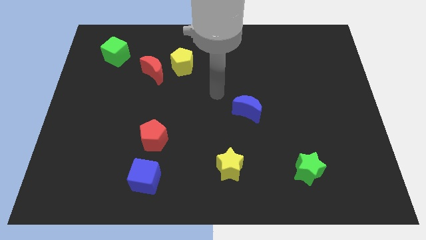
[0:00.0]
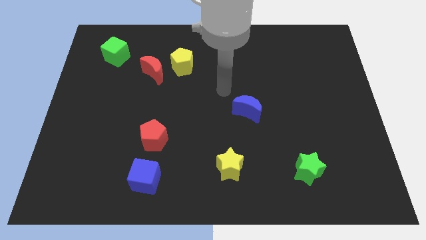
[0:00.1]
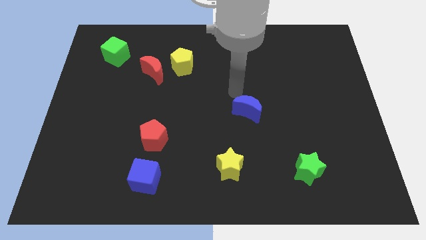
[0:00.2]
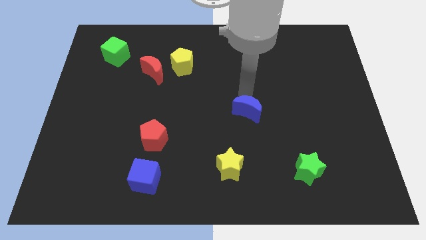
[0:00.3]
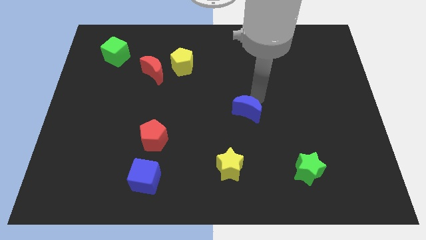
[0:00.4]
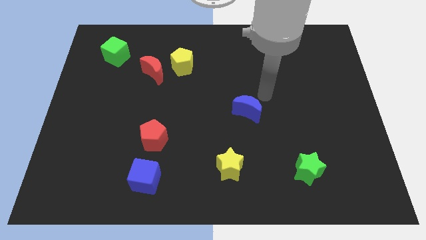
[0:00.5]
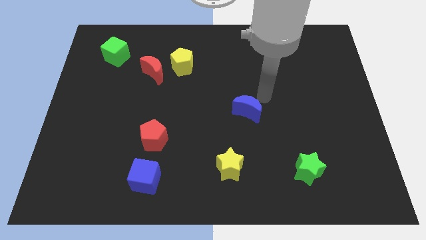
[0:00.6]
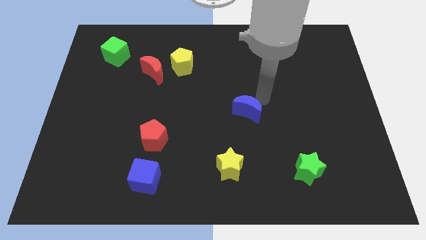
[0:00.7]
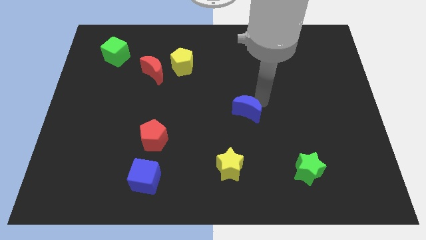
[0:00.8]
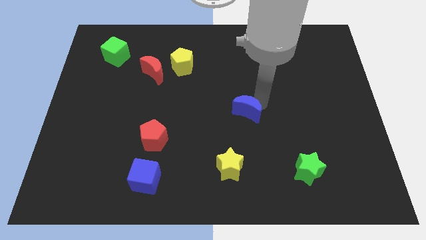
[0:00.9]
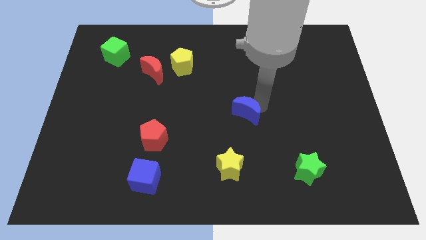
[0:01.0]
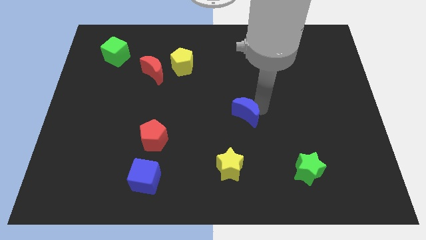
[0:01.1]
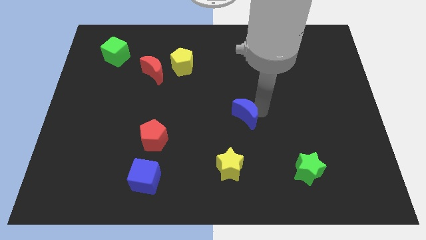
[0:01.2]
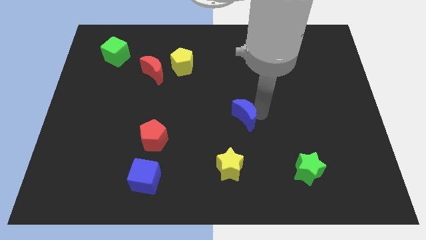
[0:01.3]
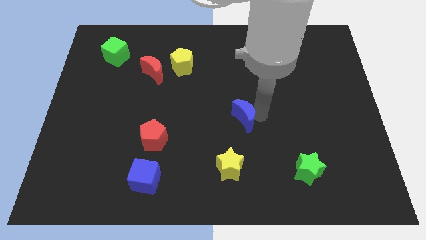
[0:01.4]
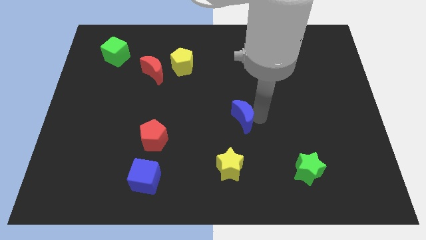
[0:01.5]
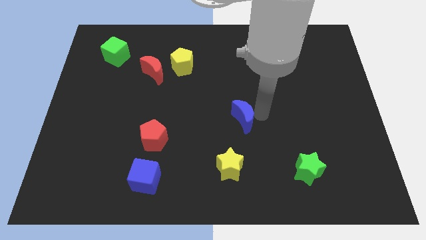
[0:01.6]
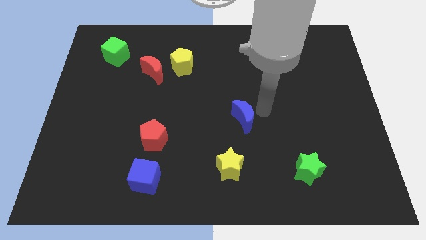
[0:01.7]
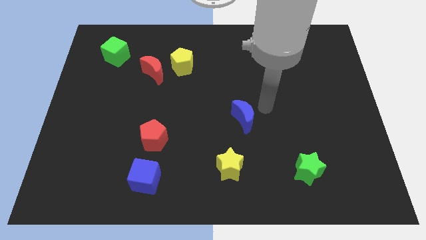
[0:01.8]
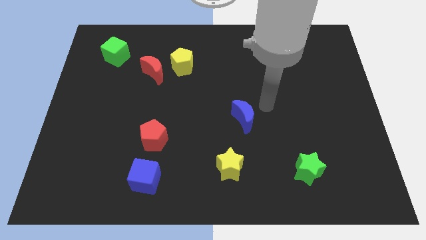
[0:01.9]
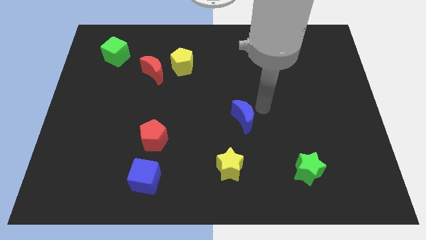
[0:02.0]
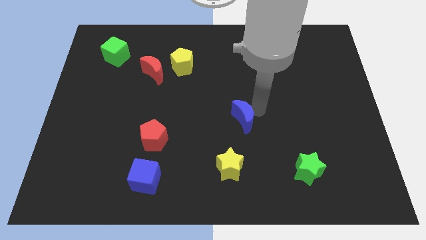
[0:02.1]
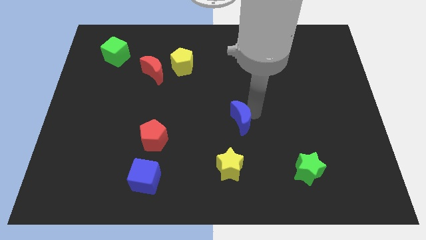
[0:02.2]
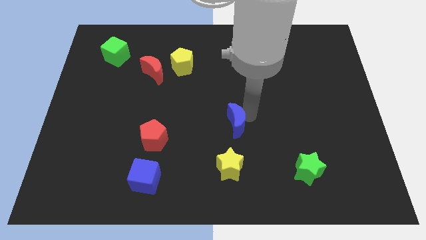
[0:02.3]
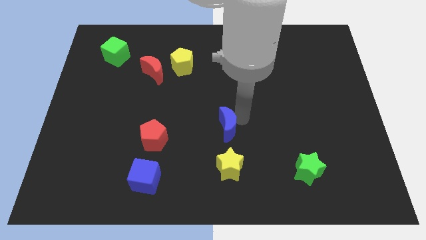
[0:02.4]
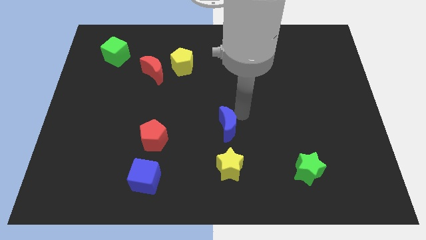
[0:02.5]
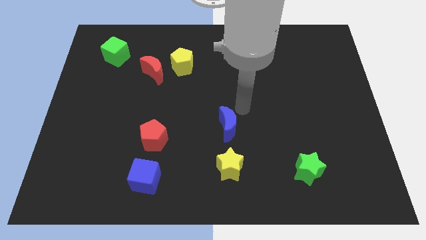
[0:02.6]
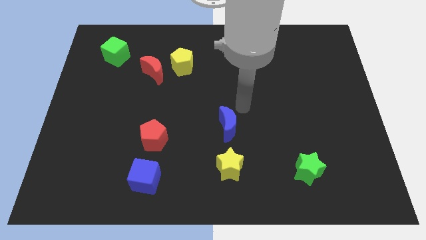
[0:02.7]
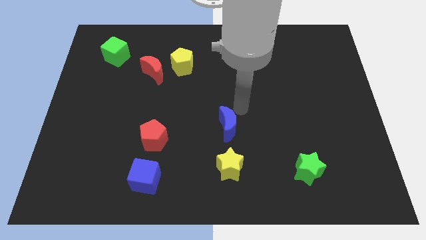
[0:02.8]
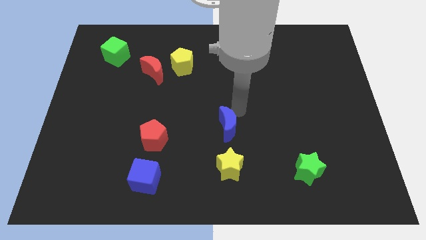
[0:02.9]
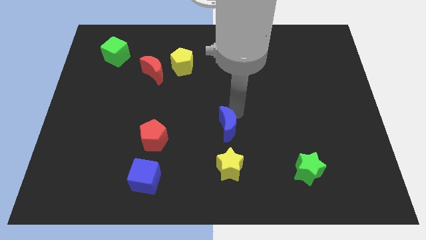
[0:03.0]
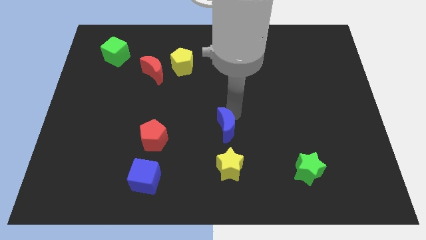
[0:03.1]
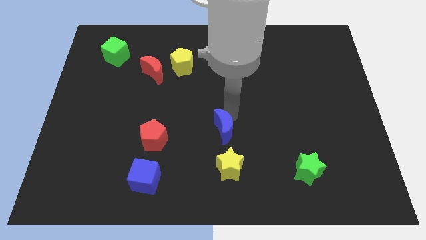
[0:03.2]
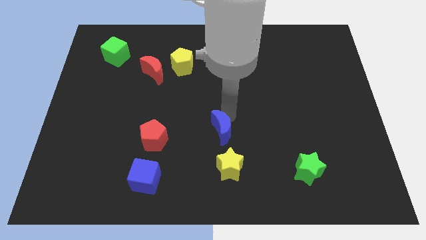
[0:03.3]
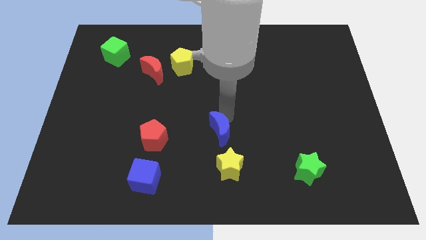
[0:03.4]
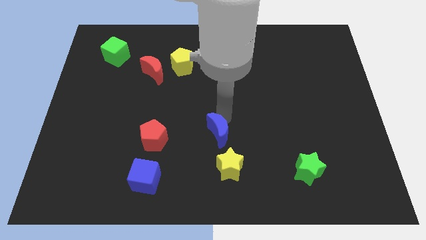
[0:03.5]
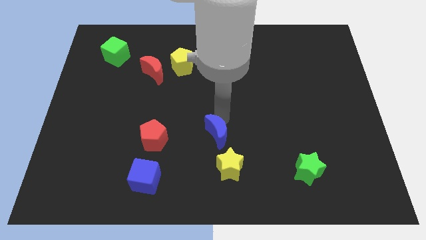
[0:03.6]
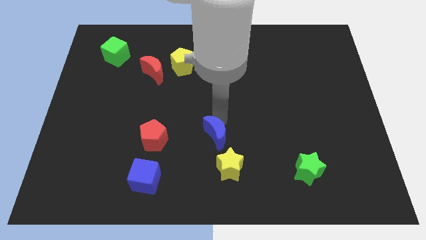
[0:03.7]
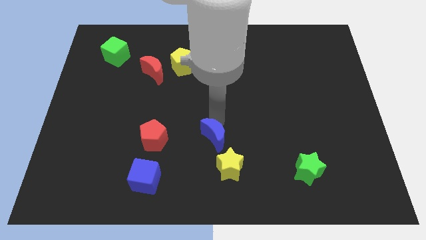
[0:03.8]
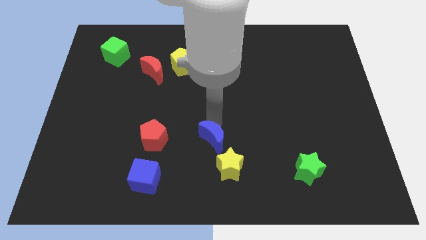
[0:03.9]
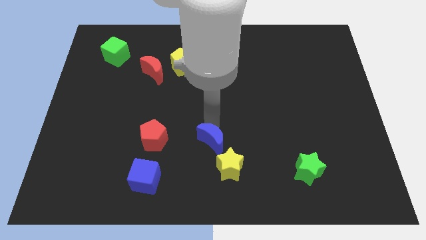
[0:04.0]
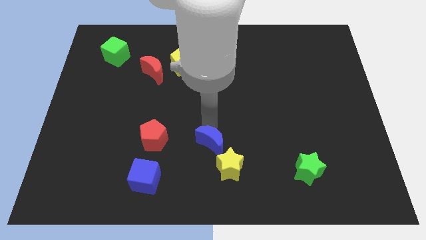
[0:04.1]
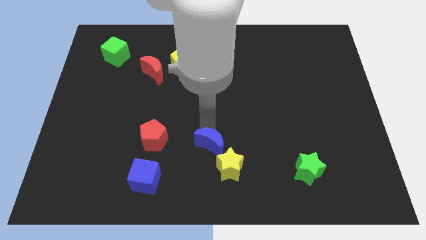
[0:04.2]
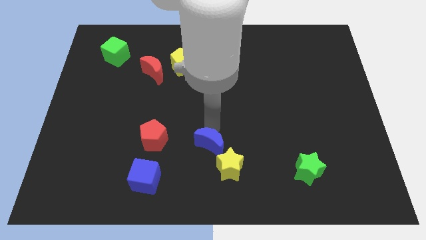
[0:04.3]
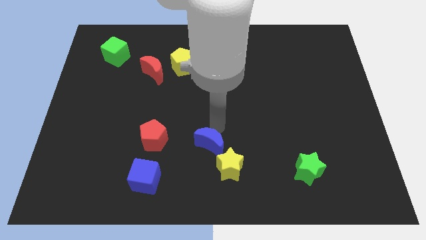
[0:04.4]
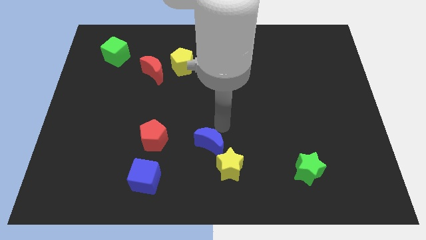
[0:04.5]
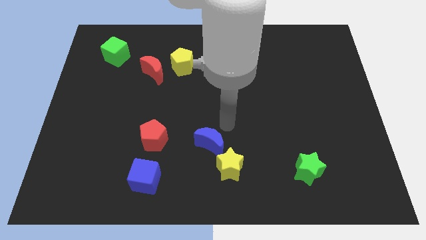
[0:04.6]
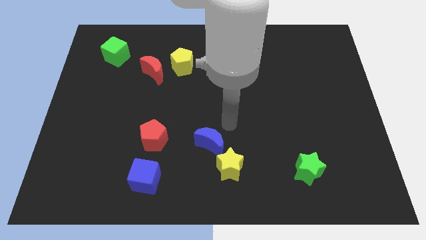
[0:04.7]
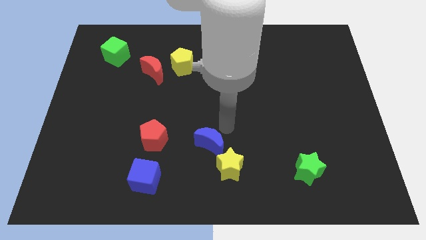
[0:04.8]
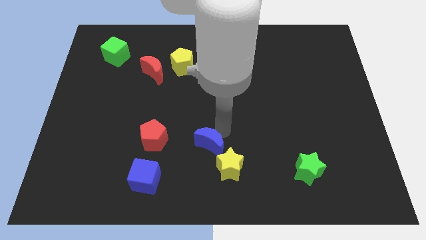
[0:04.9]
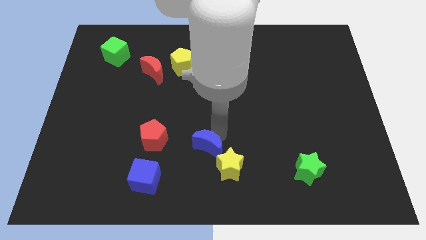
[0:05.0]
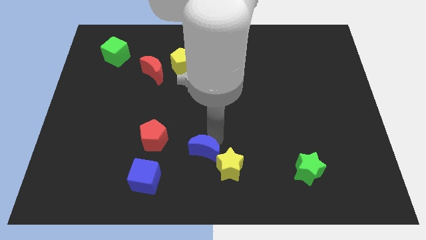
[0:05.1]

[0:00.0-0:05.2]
move the blue moon to the left side of the yellow star

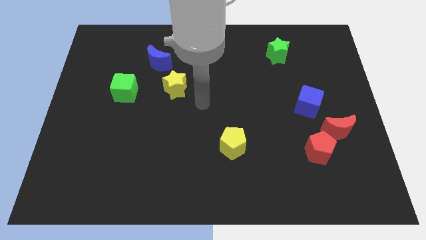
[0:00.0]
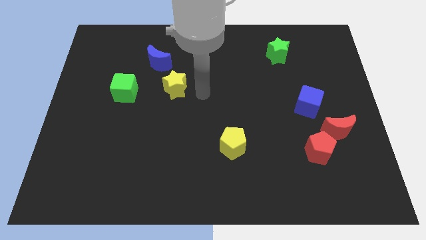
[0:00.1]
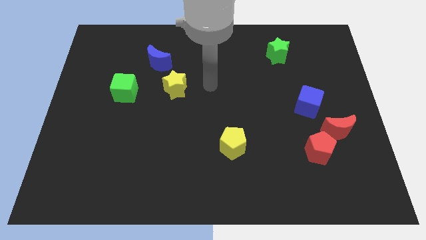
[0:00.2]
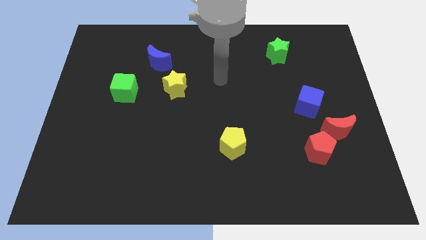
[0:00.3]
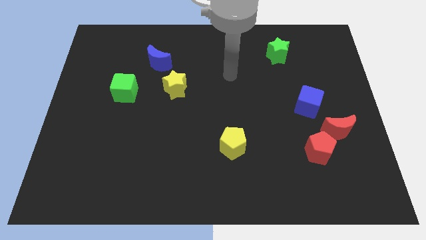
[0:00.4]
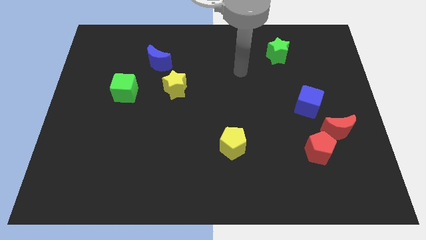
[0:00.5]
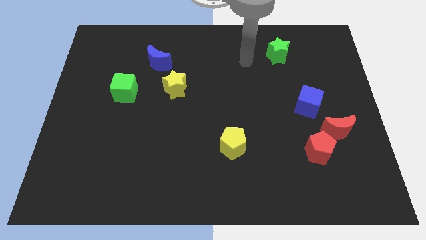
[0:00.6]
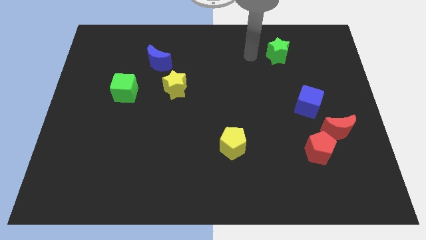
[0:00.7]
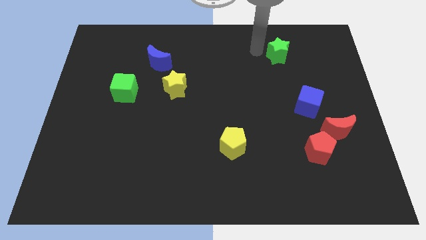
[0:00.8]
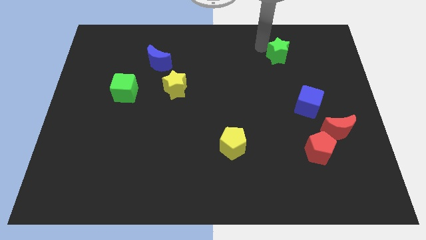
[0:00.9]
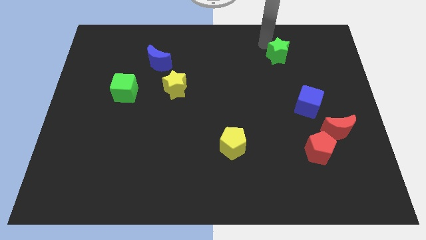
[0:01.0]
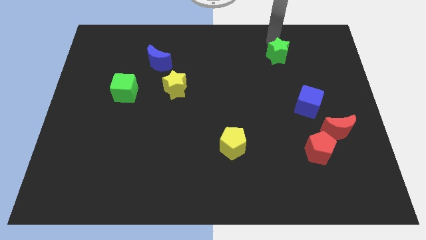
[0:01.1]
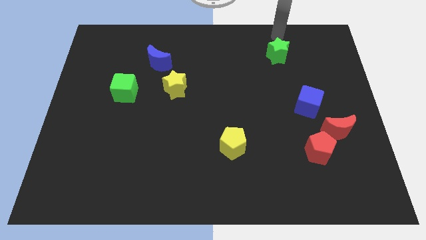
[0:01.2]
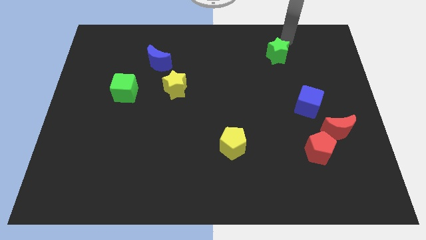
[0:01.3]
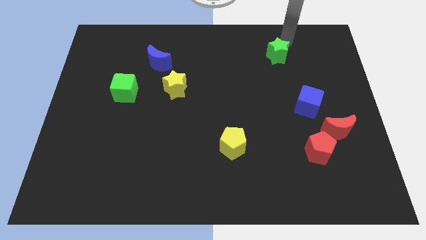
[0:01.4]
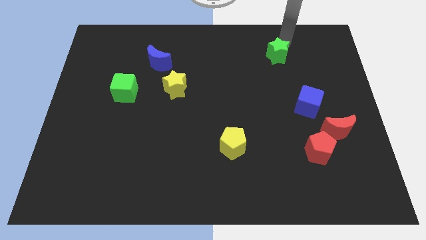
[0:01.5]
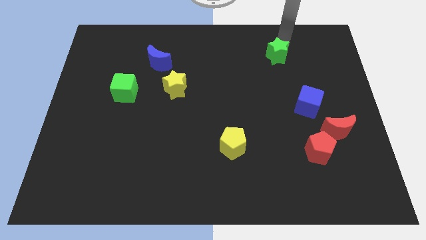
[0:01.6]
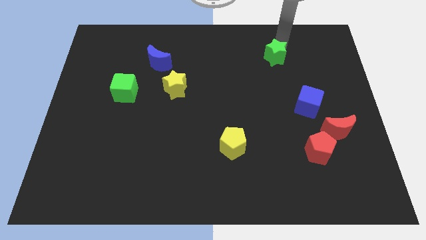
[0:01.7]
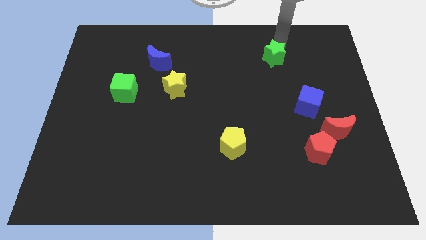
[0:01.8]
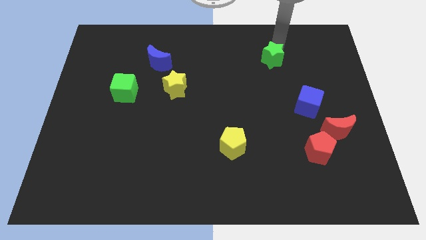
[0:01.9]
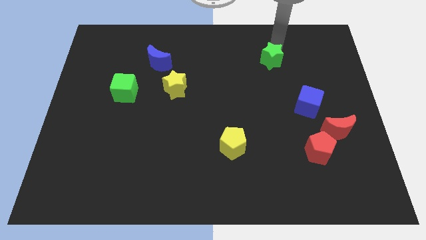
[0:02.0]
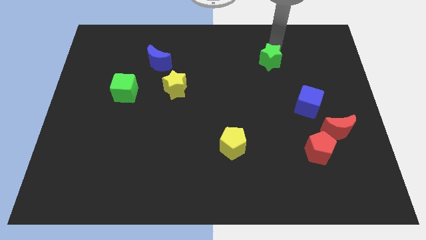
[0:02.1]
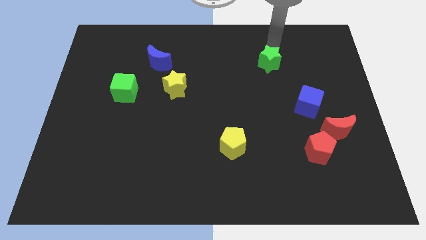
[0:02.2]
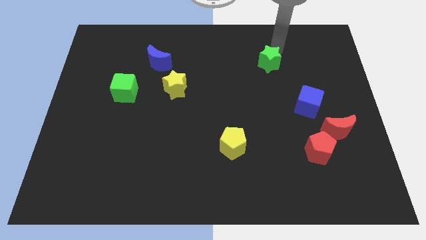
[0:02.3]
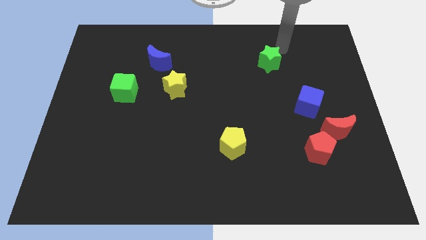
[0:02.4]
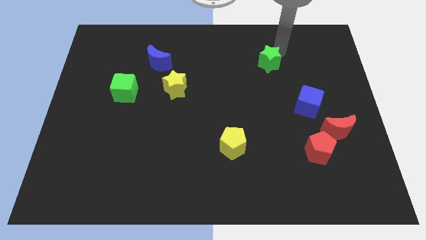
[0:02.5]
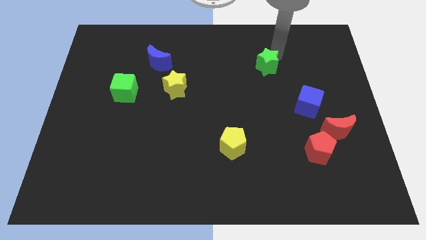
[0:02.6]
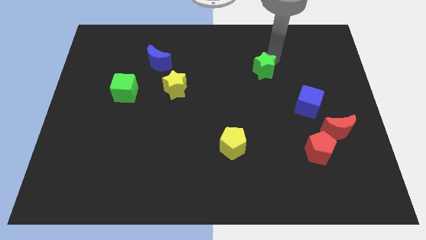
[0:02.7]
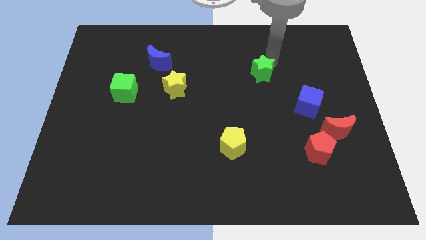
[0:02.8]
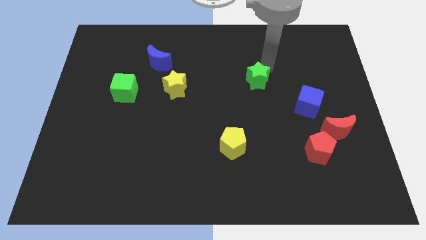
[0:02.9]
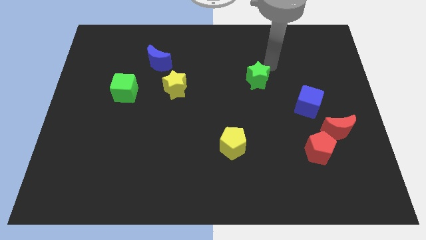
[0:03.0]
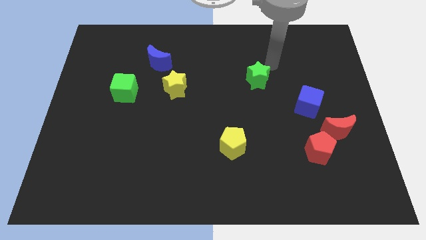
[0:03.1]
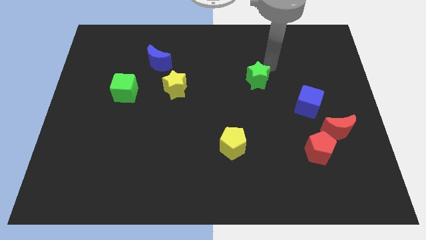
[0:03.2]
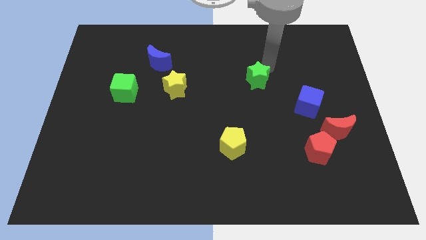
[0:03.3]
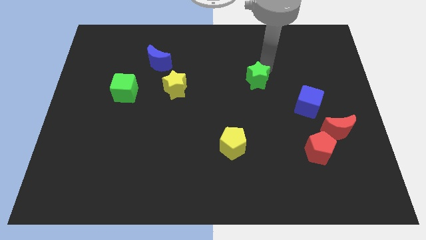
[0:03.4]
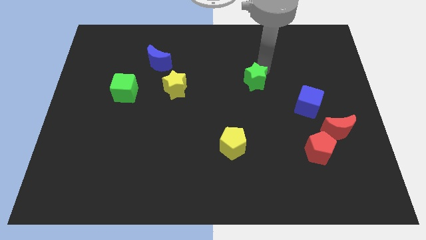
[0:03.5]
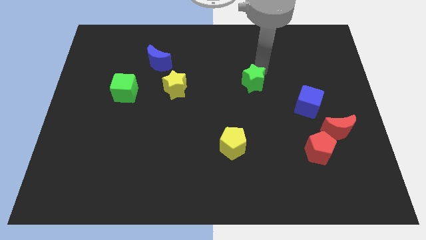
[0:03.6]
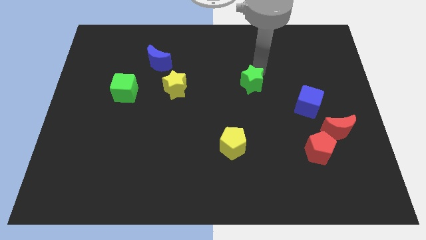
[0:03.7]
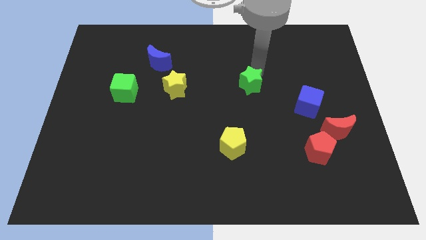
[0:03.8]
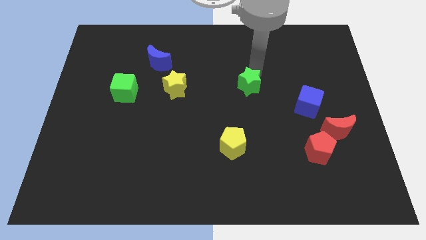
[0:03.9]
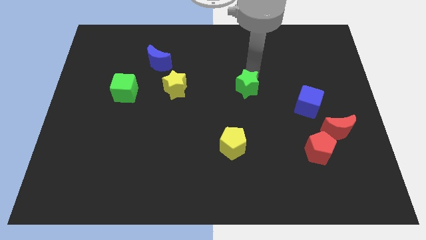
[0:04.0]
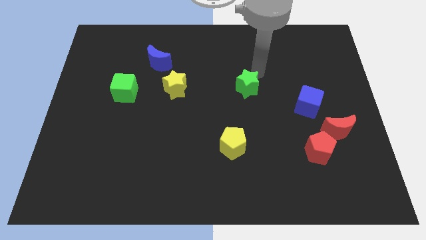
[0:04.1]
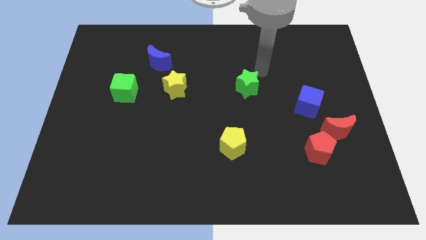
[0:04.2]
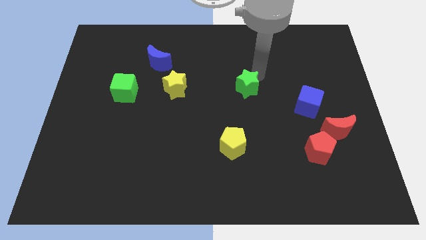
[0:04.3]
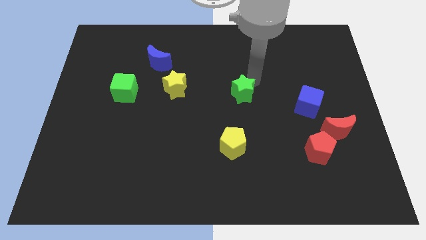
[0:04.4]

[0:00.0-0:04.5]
move the green star to the top of the yellow pentagon
